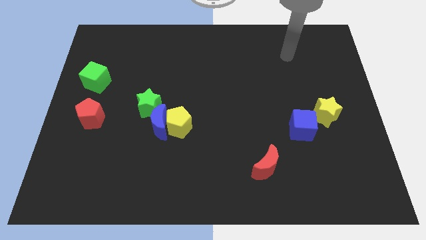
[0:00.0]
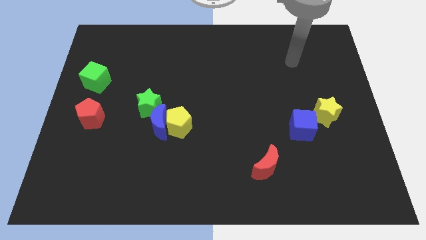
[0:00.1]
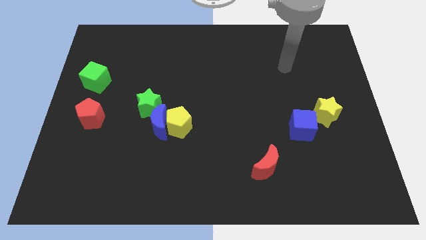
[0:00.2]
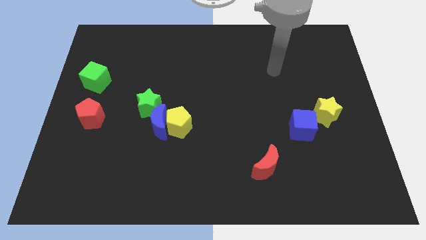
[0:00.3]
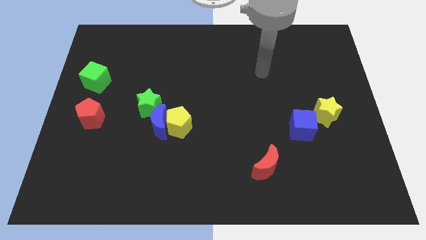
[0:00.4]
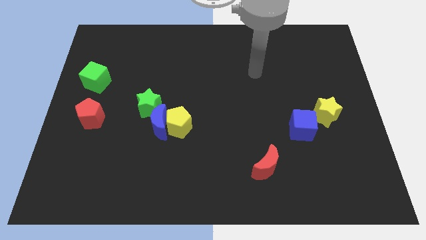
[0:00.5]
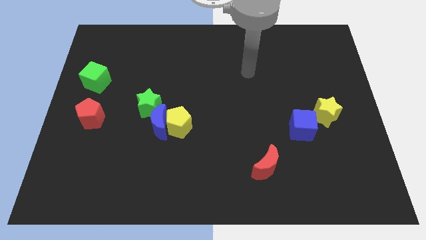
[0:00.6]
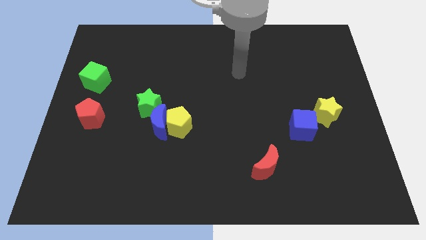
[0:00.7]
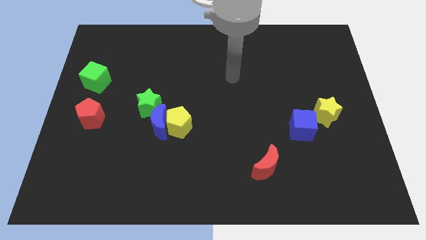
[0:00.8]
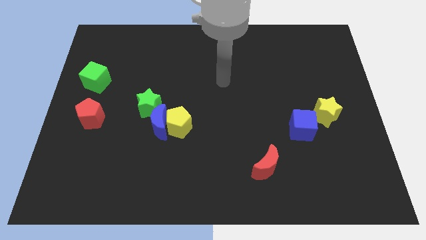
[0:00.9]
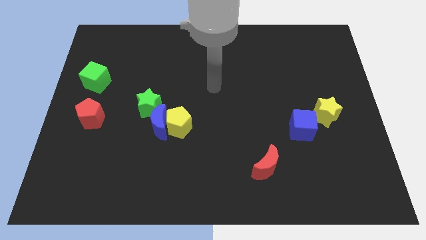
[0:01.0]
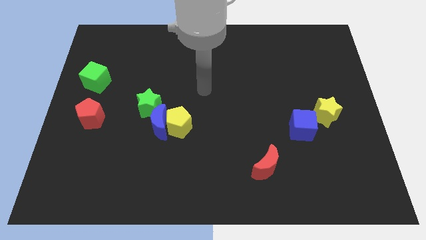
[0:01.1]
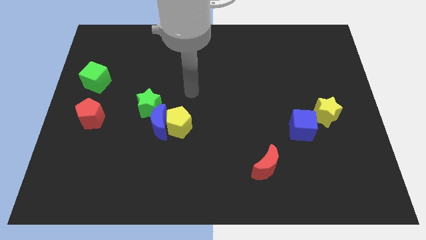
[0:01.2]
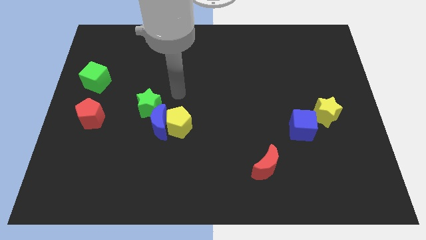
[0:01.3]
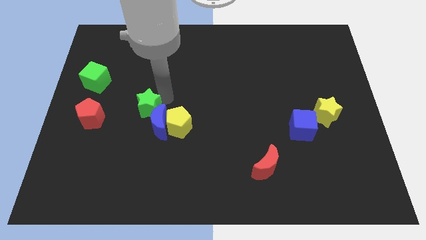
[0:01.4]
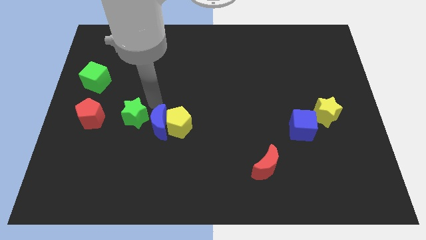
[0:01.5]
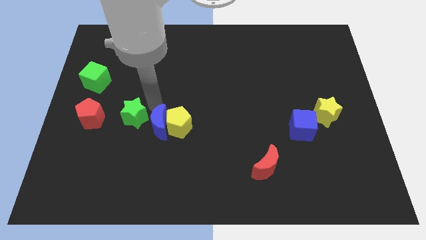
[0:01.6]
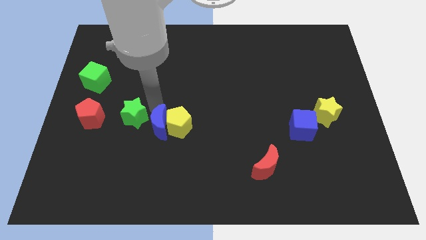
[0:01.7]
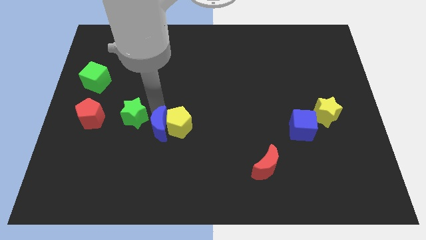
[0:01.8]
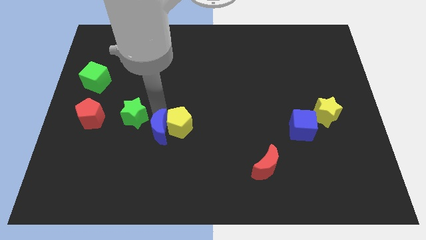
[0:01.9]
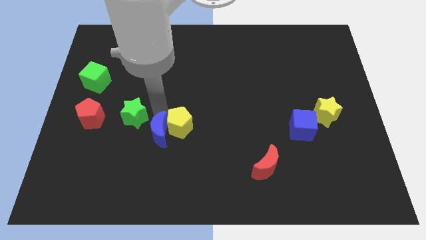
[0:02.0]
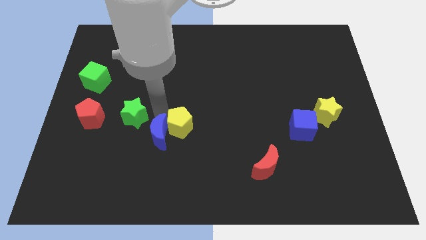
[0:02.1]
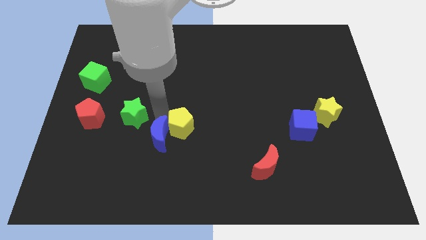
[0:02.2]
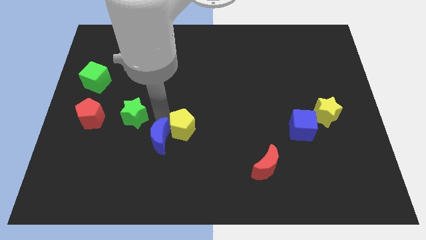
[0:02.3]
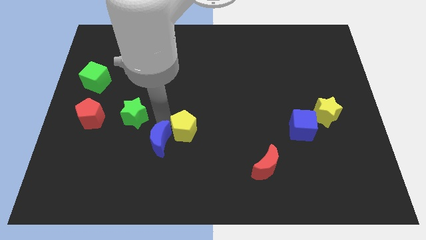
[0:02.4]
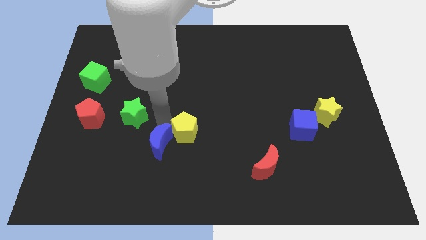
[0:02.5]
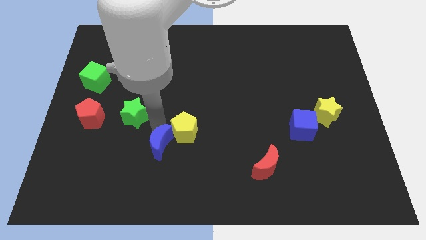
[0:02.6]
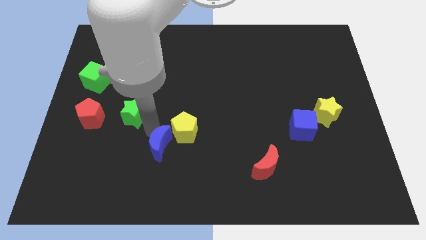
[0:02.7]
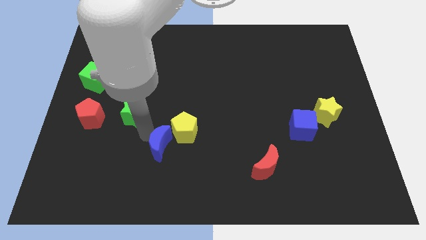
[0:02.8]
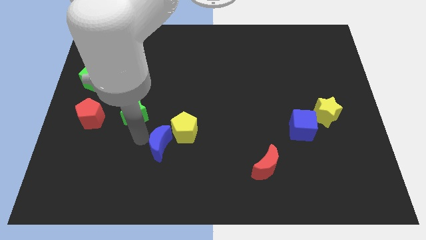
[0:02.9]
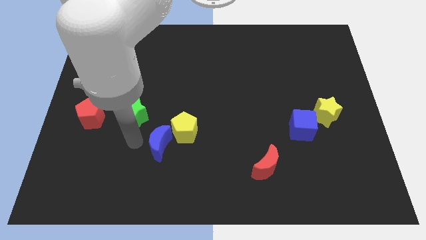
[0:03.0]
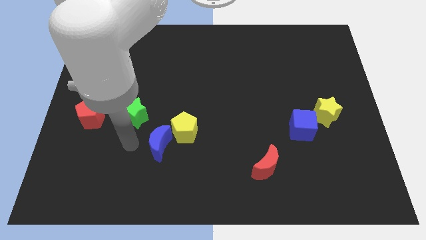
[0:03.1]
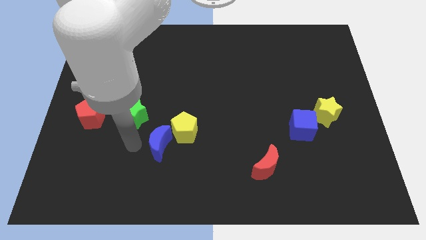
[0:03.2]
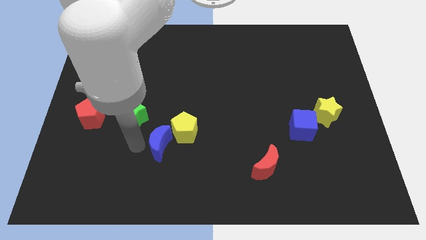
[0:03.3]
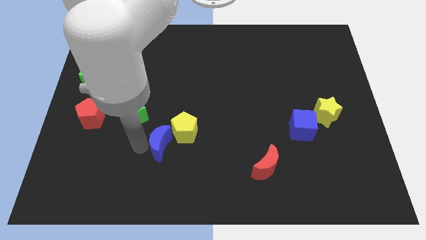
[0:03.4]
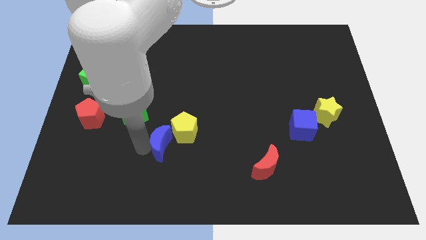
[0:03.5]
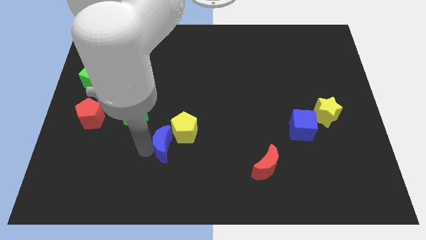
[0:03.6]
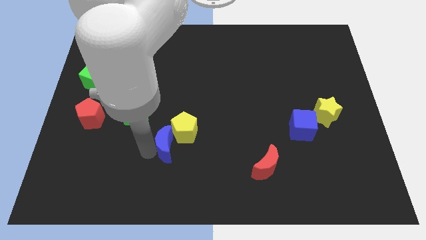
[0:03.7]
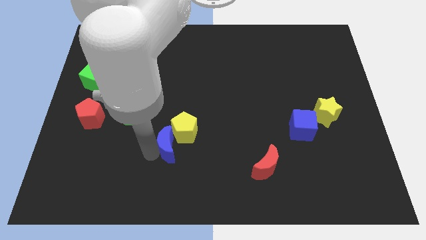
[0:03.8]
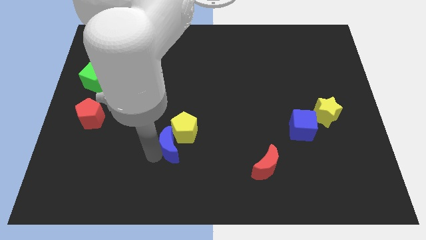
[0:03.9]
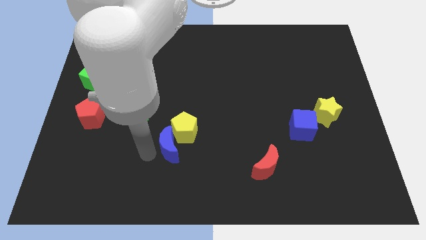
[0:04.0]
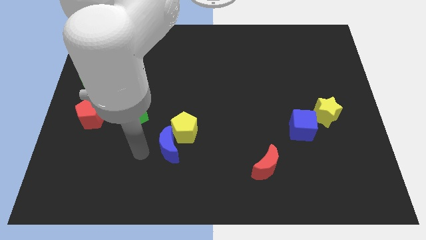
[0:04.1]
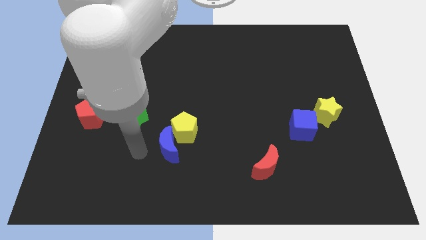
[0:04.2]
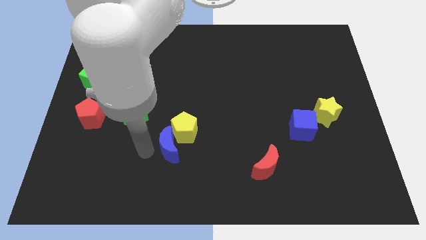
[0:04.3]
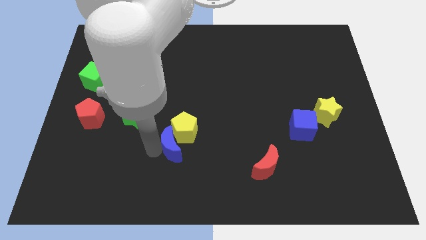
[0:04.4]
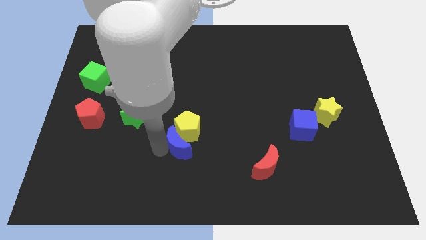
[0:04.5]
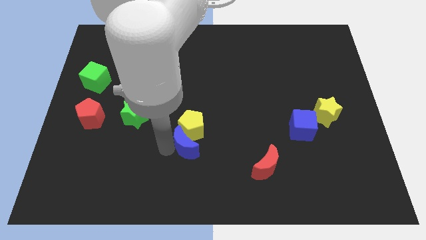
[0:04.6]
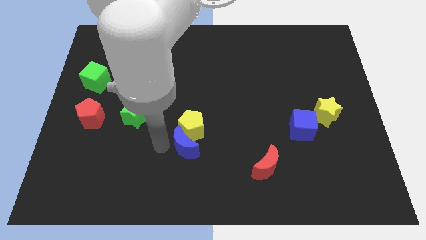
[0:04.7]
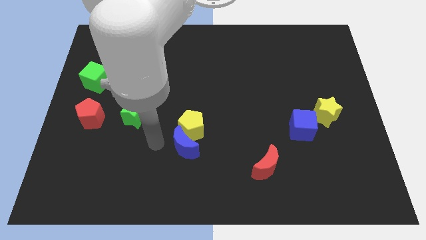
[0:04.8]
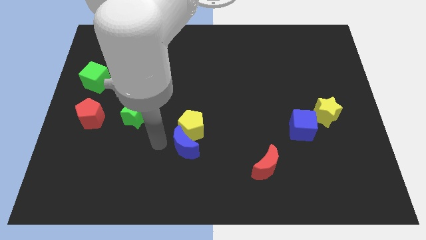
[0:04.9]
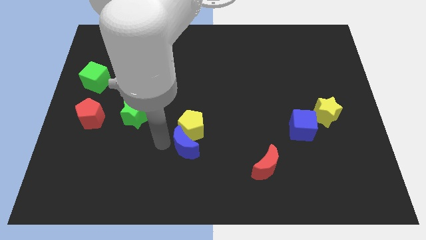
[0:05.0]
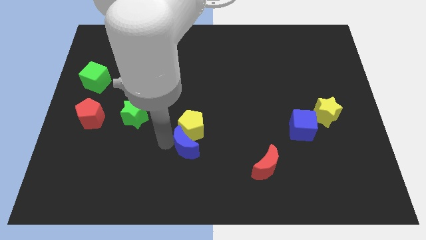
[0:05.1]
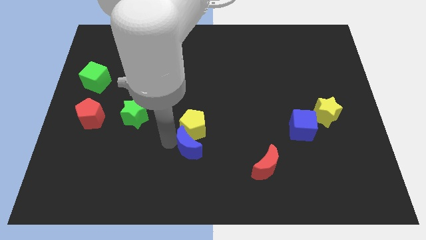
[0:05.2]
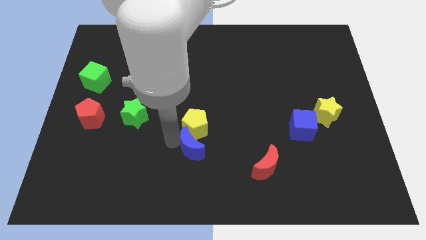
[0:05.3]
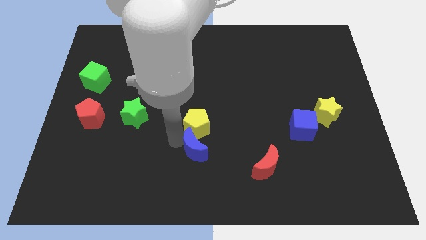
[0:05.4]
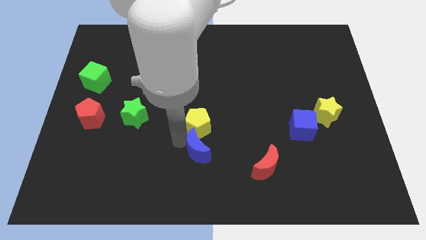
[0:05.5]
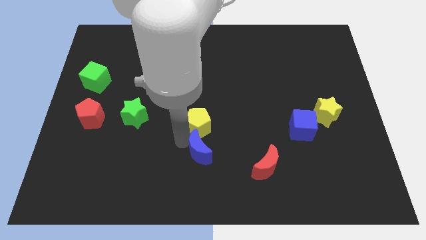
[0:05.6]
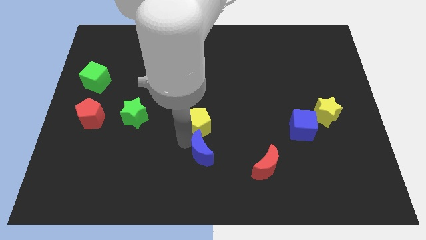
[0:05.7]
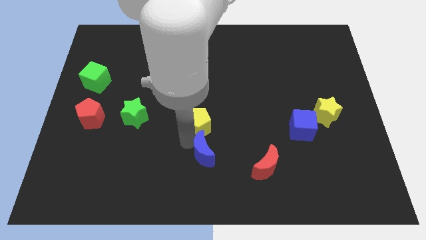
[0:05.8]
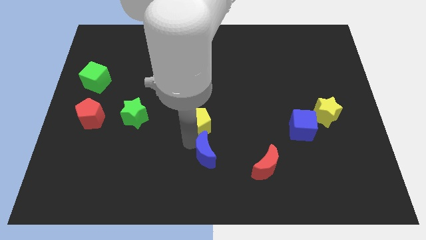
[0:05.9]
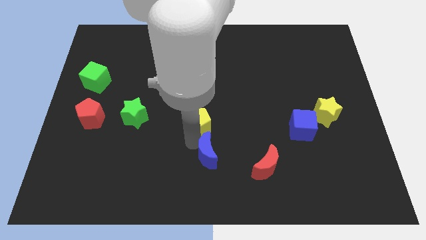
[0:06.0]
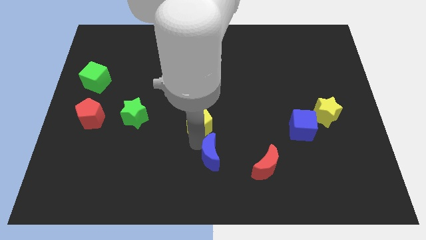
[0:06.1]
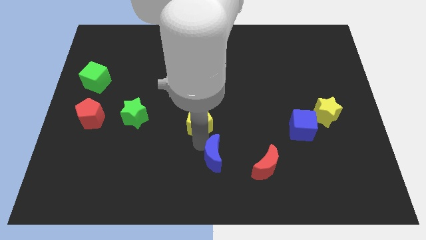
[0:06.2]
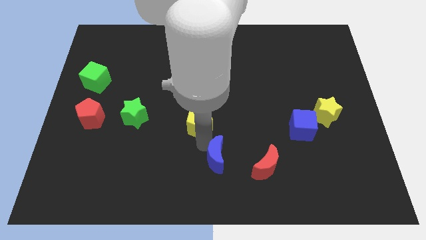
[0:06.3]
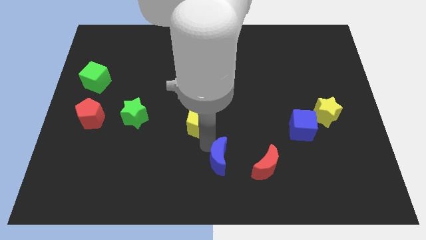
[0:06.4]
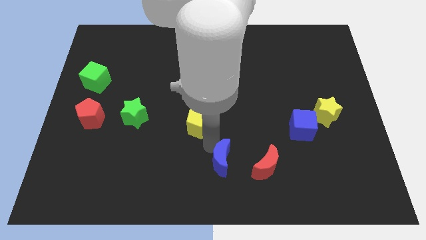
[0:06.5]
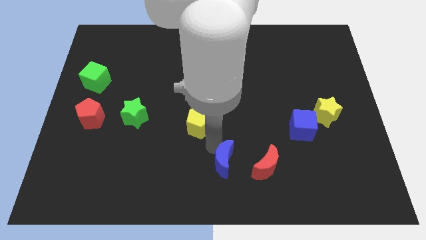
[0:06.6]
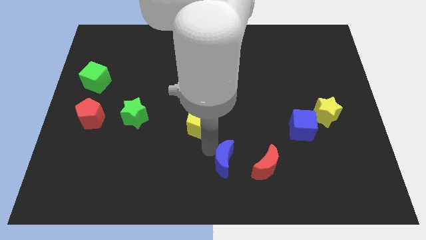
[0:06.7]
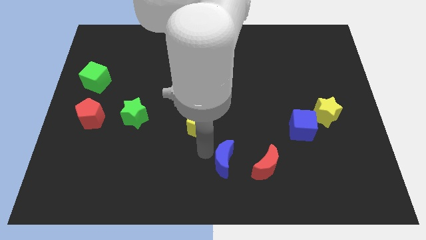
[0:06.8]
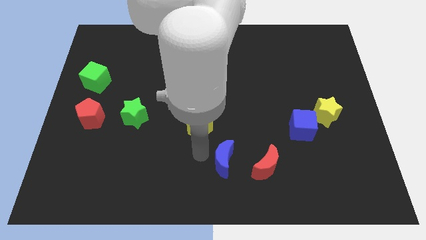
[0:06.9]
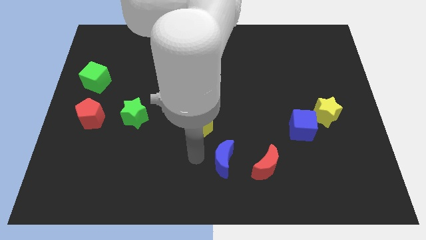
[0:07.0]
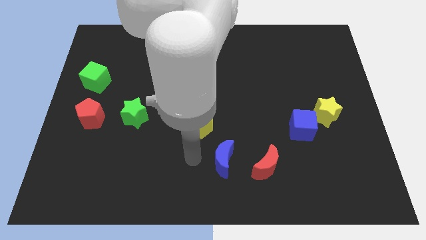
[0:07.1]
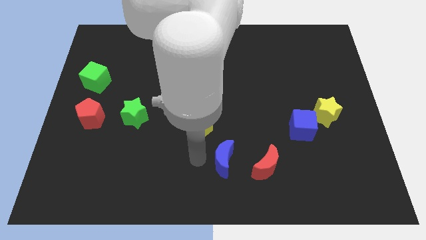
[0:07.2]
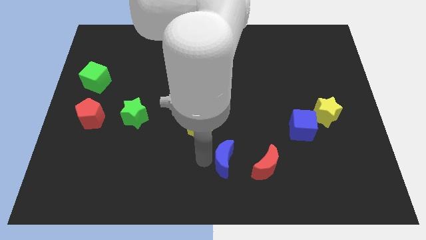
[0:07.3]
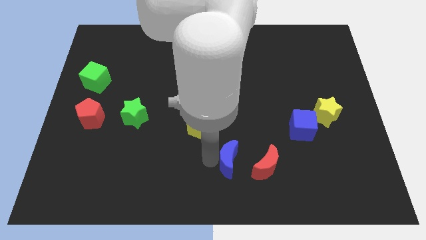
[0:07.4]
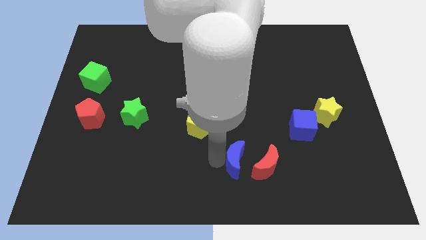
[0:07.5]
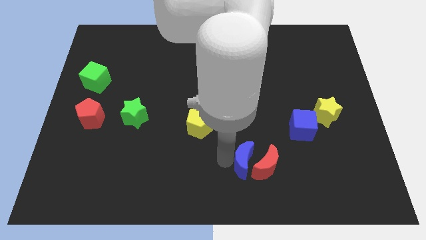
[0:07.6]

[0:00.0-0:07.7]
move the blue moon close to the red moon
